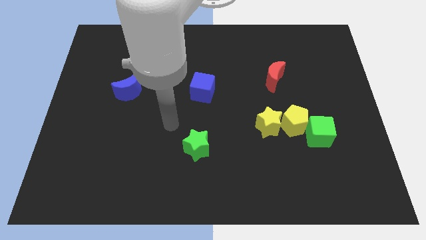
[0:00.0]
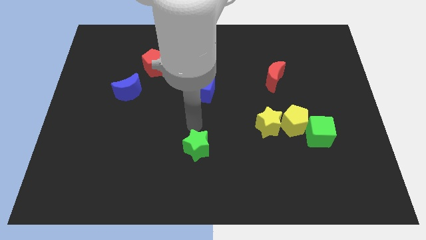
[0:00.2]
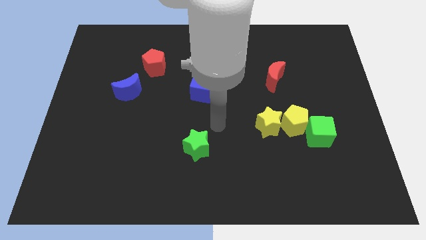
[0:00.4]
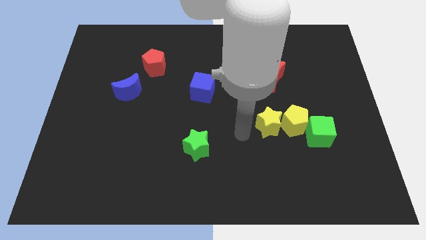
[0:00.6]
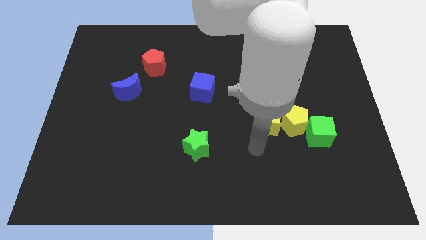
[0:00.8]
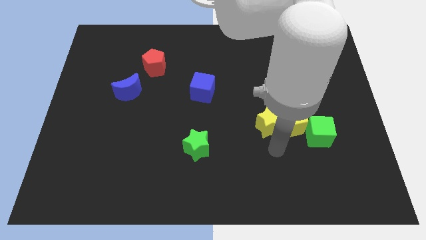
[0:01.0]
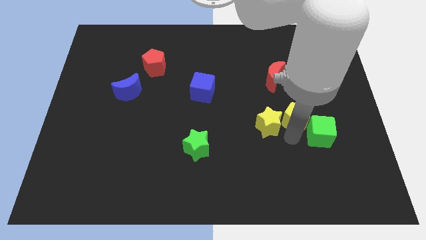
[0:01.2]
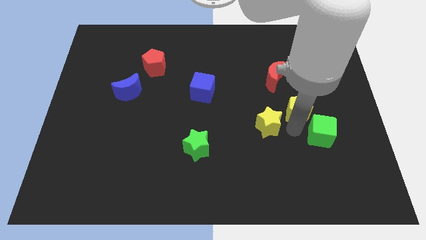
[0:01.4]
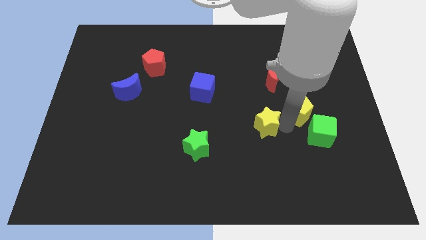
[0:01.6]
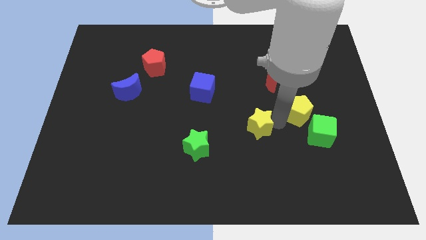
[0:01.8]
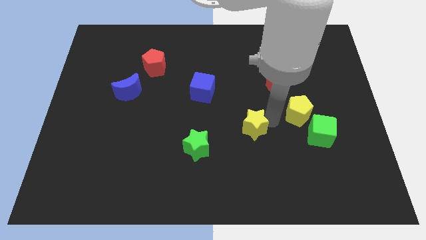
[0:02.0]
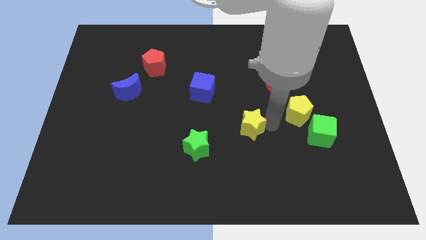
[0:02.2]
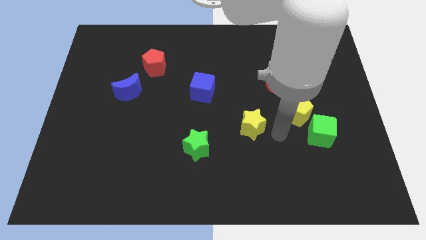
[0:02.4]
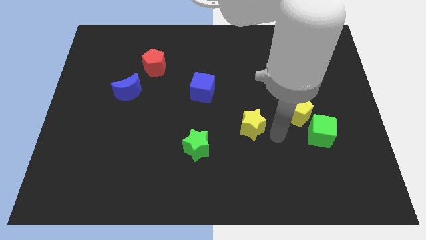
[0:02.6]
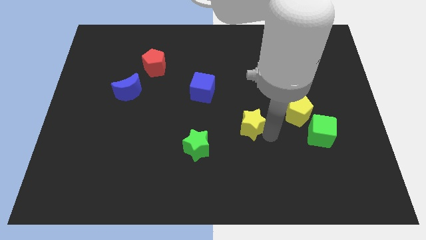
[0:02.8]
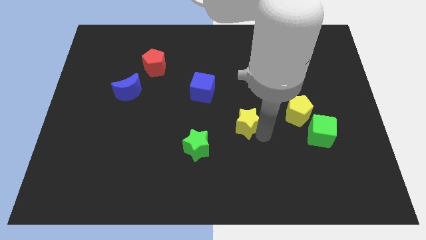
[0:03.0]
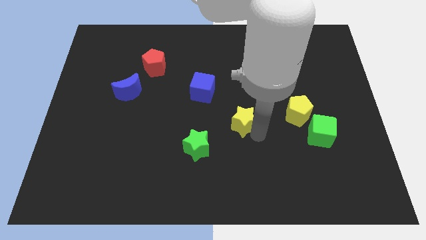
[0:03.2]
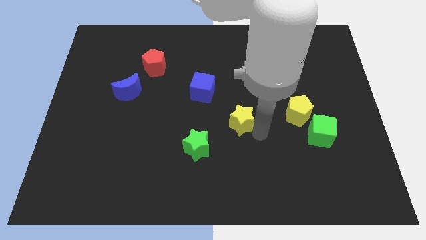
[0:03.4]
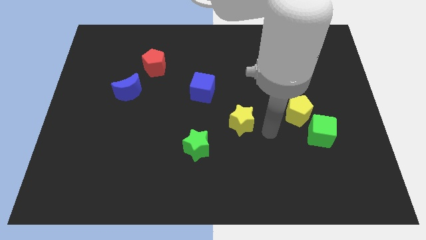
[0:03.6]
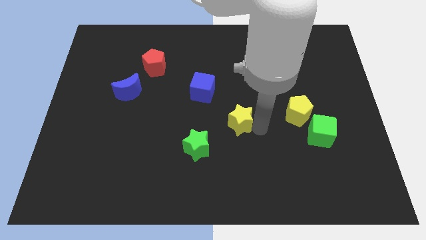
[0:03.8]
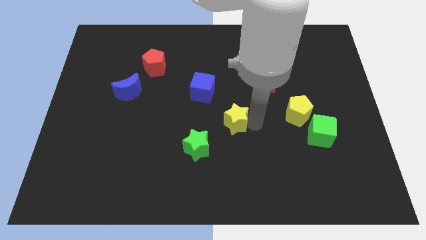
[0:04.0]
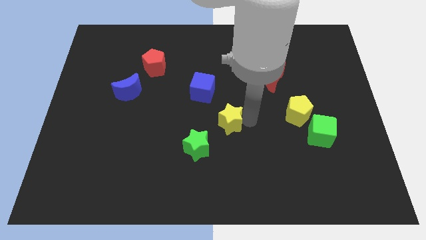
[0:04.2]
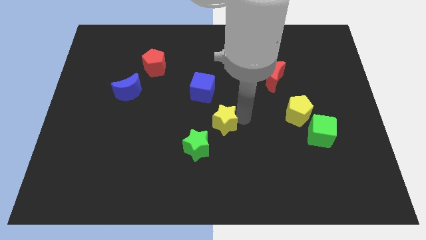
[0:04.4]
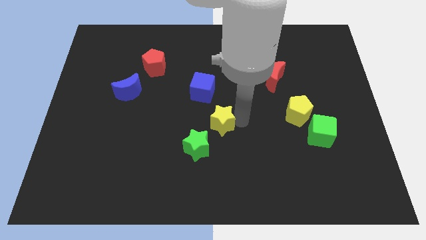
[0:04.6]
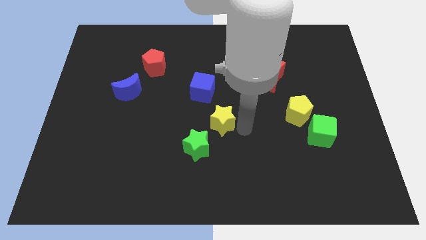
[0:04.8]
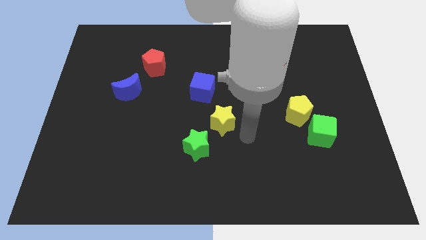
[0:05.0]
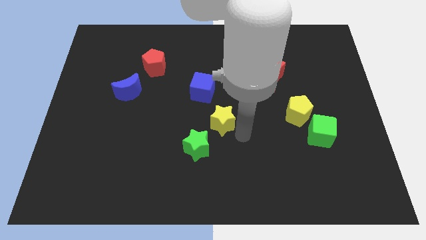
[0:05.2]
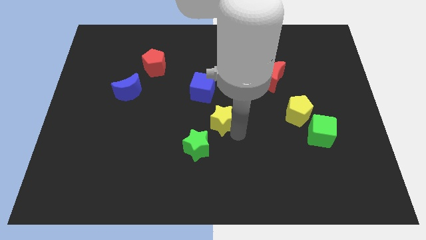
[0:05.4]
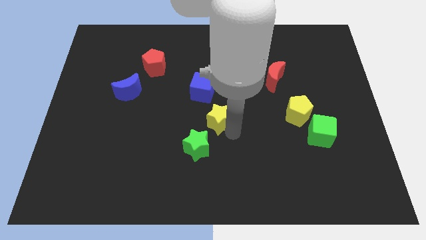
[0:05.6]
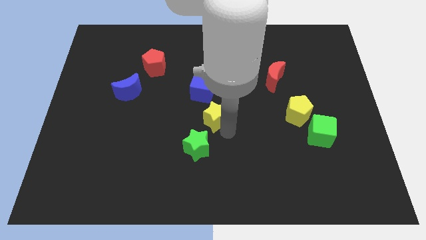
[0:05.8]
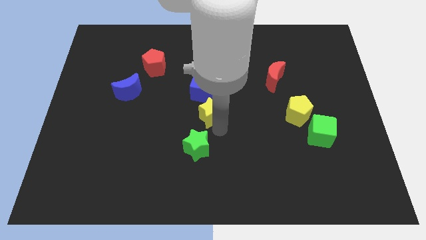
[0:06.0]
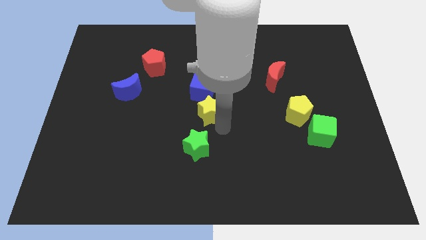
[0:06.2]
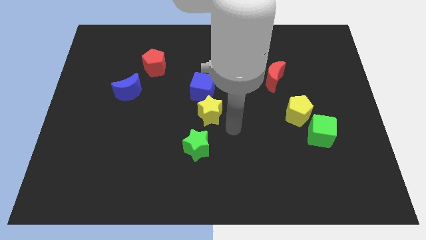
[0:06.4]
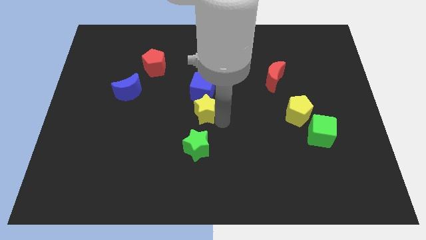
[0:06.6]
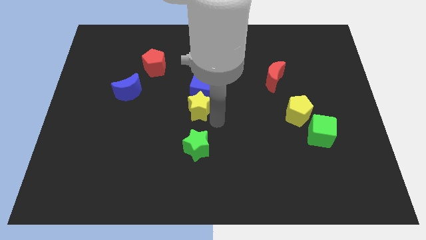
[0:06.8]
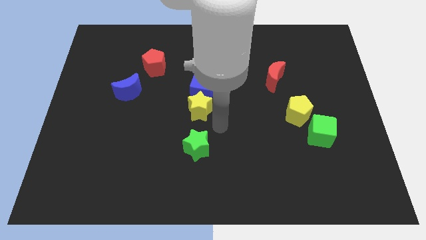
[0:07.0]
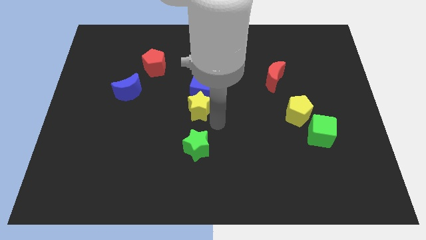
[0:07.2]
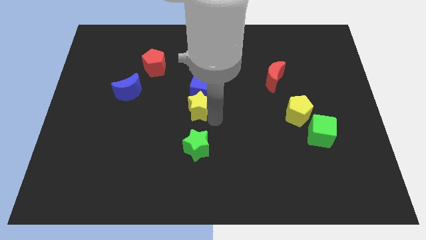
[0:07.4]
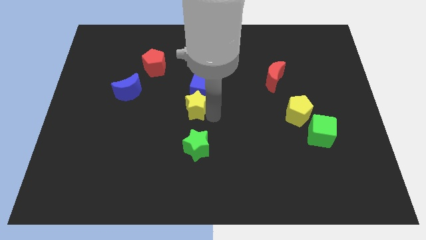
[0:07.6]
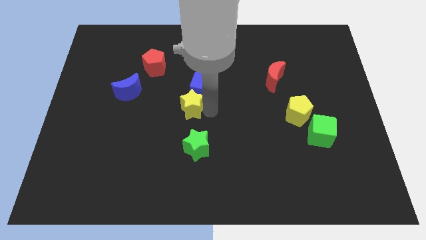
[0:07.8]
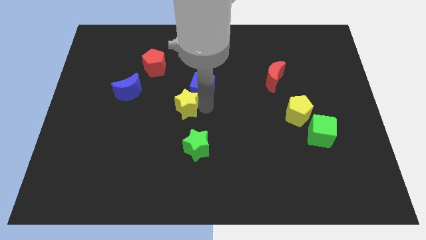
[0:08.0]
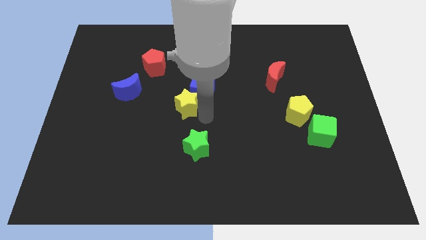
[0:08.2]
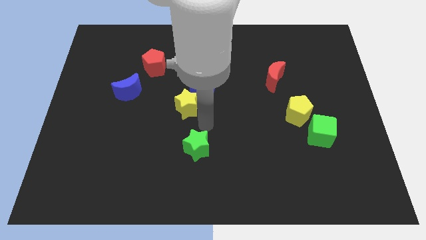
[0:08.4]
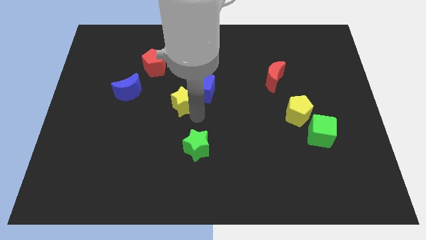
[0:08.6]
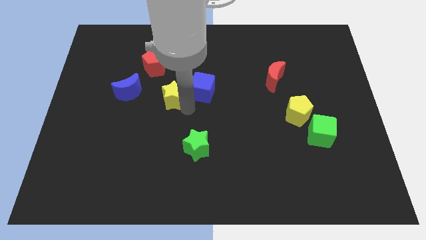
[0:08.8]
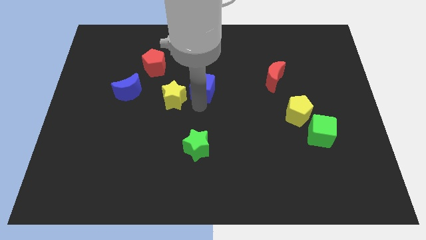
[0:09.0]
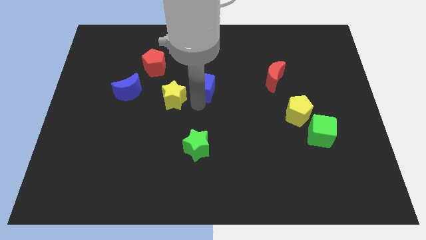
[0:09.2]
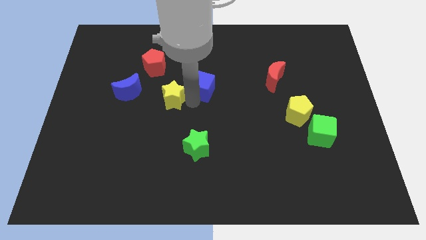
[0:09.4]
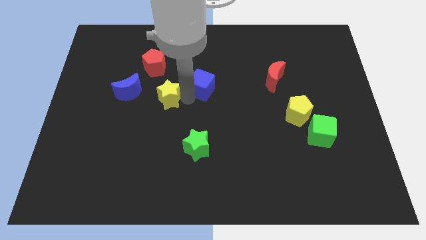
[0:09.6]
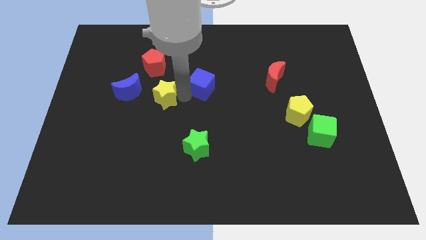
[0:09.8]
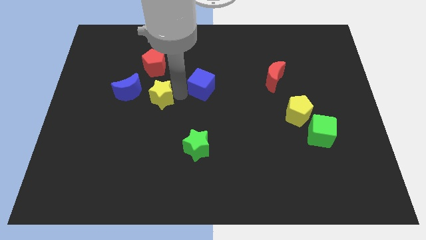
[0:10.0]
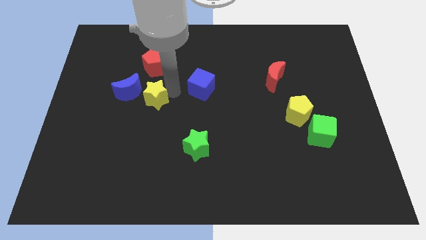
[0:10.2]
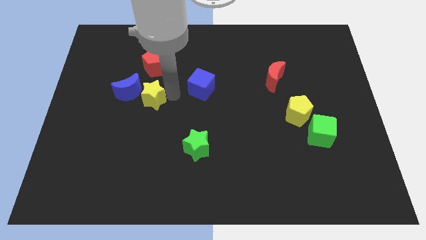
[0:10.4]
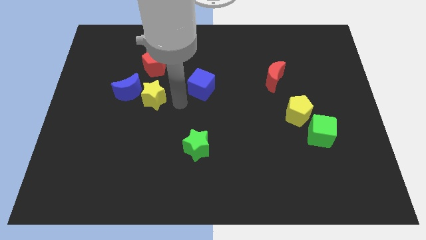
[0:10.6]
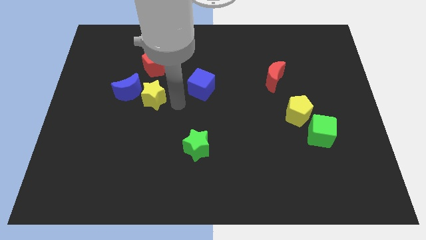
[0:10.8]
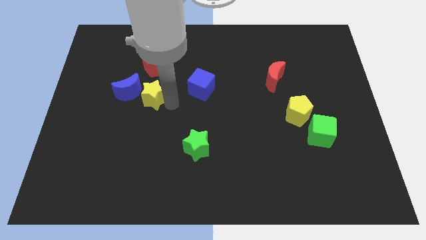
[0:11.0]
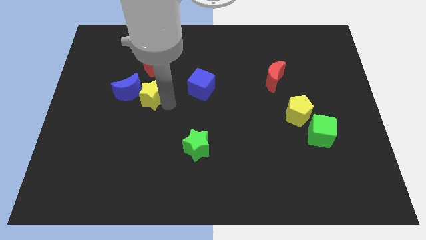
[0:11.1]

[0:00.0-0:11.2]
put the yellow star to the blue moon

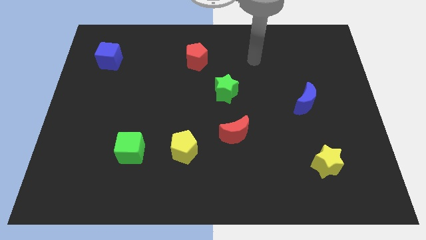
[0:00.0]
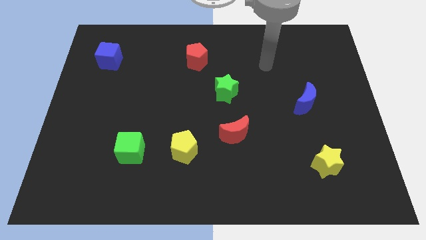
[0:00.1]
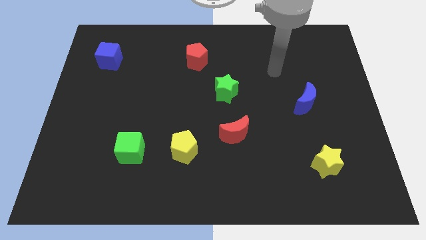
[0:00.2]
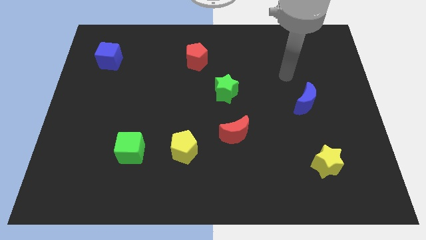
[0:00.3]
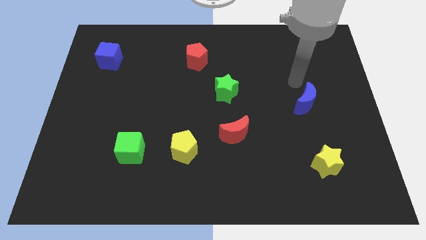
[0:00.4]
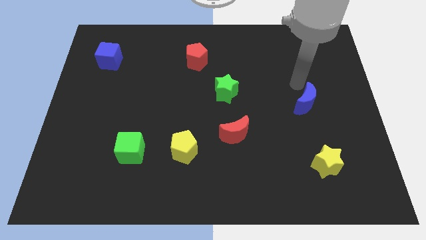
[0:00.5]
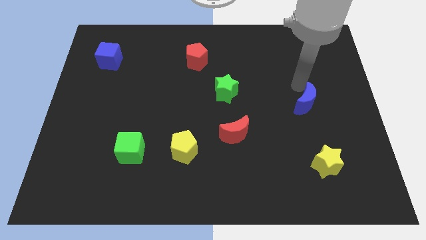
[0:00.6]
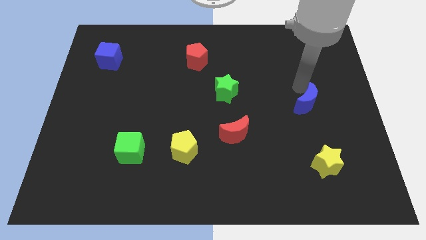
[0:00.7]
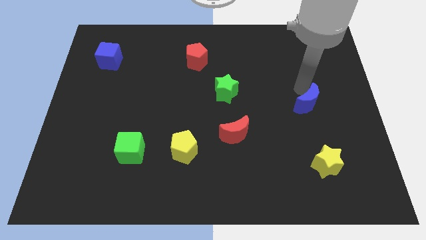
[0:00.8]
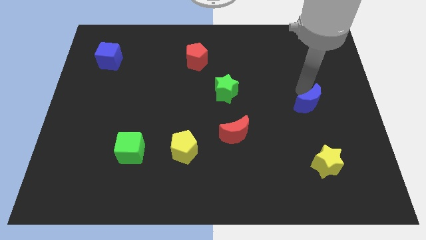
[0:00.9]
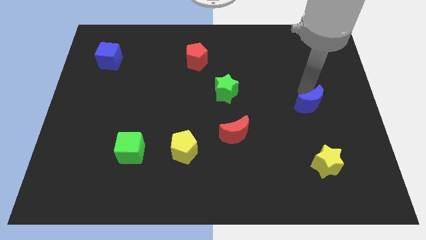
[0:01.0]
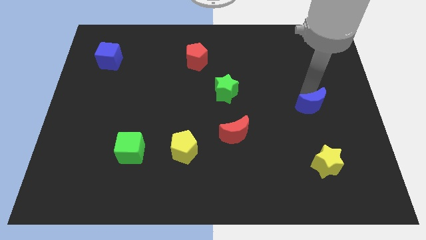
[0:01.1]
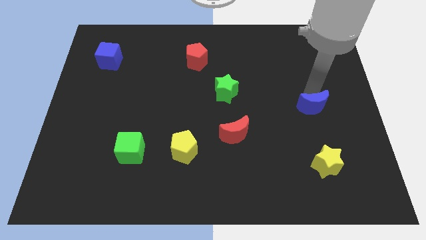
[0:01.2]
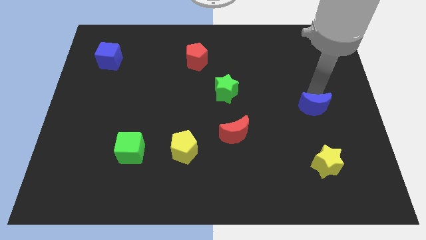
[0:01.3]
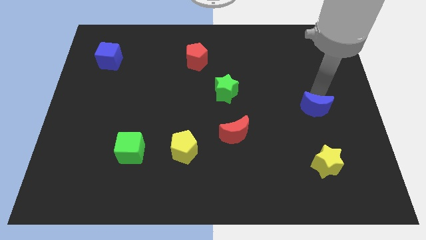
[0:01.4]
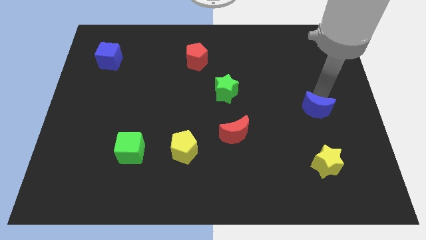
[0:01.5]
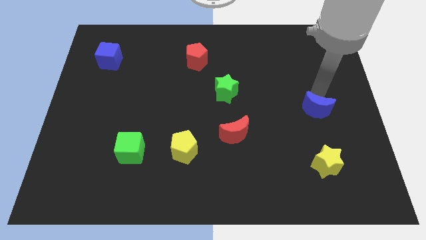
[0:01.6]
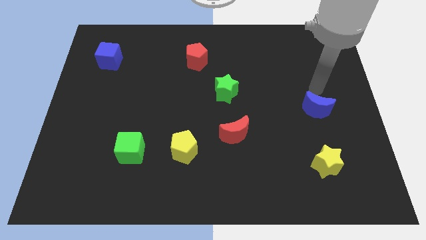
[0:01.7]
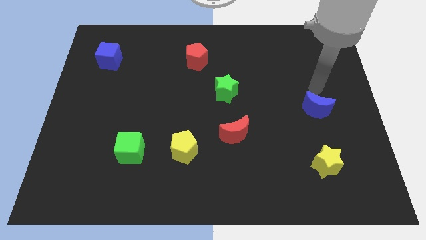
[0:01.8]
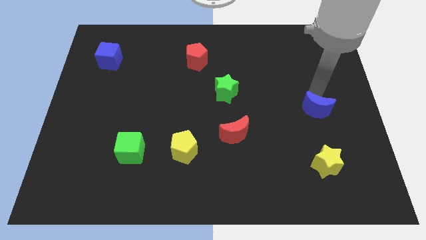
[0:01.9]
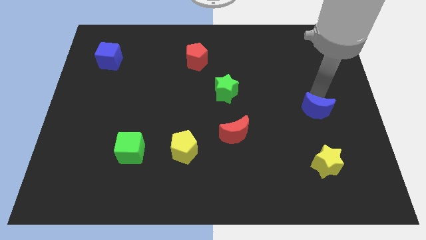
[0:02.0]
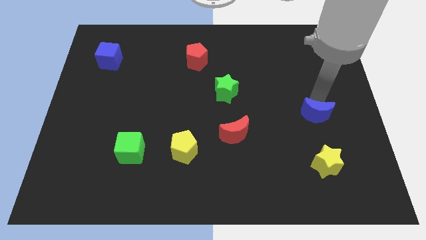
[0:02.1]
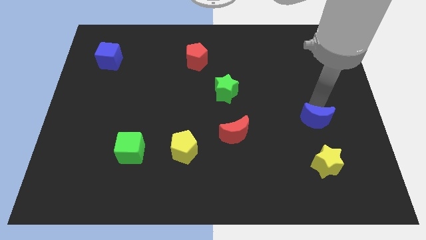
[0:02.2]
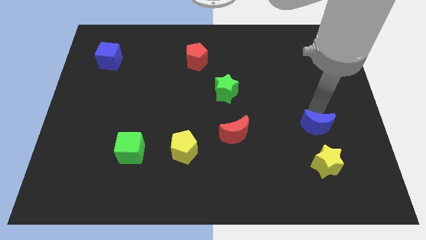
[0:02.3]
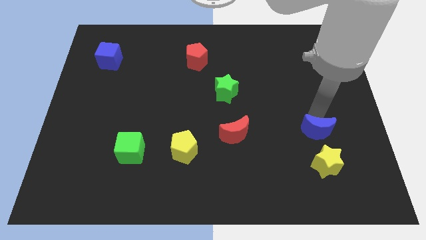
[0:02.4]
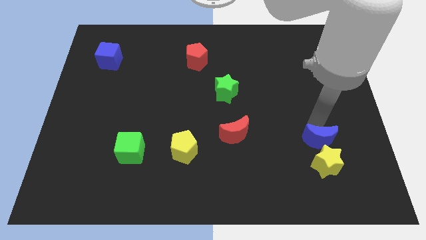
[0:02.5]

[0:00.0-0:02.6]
push the blue moon towards the yellow star
